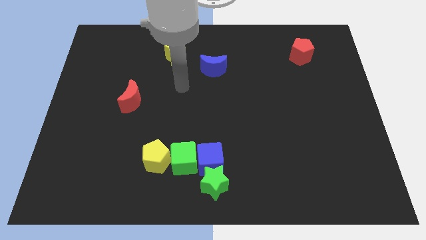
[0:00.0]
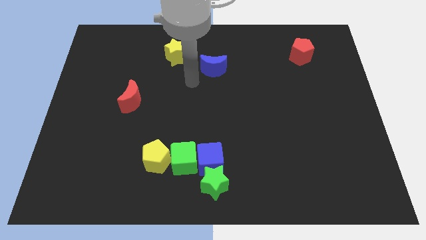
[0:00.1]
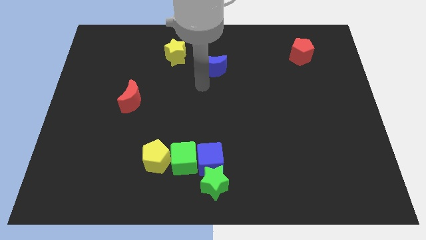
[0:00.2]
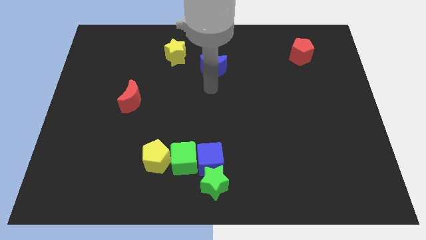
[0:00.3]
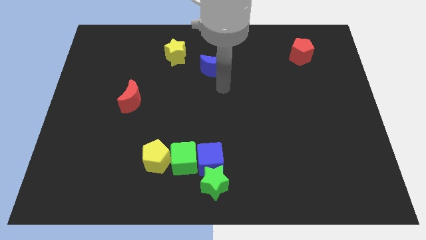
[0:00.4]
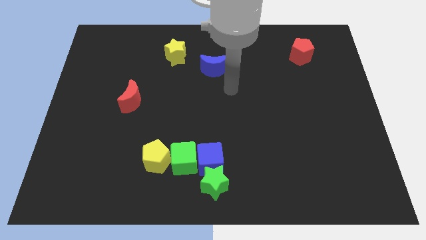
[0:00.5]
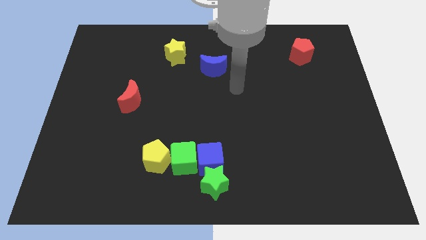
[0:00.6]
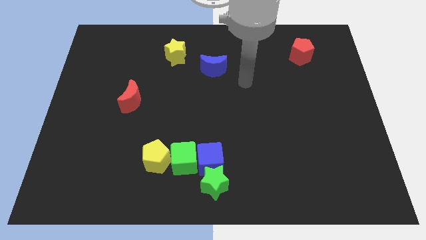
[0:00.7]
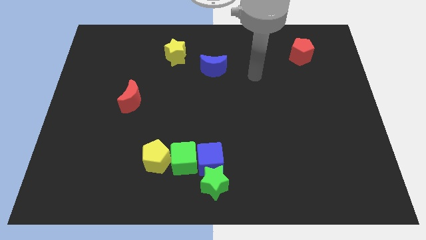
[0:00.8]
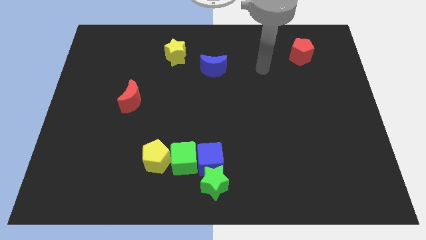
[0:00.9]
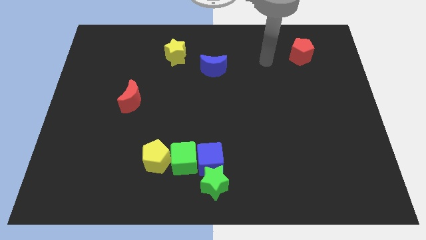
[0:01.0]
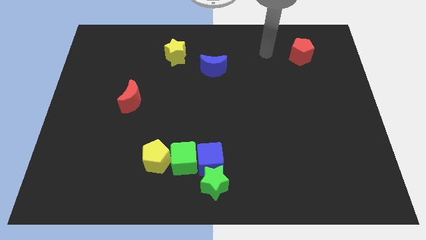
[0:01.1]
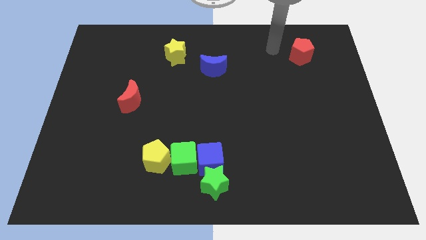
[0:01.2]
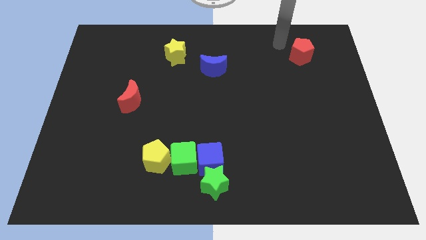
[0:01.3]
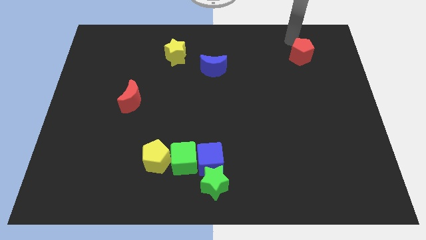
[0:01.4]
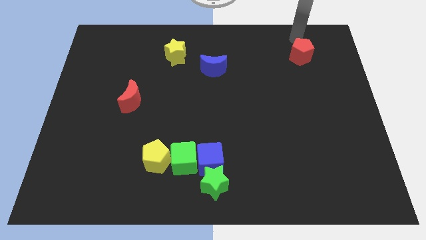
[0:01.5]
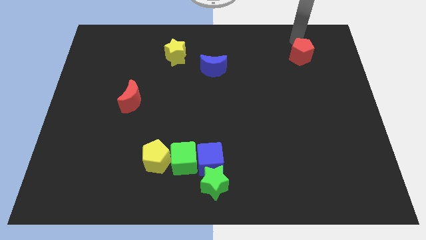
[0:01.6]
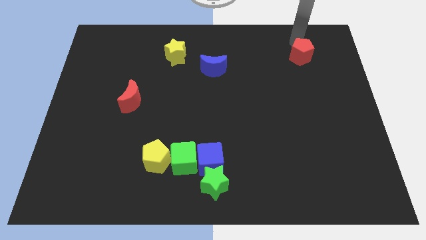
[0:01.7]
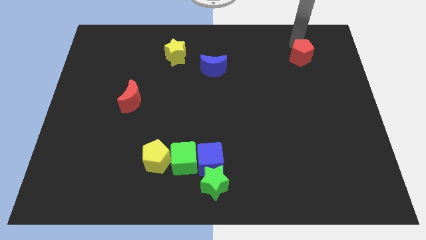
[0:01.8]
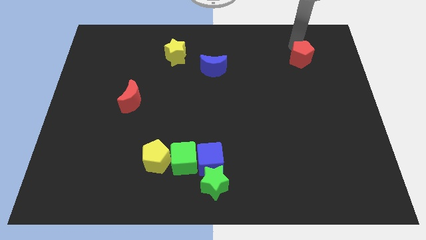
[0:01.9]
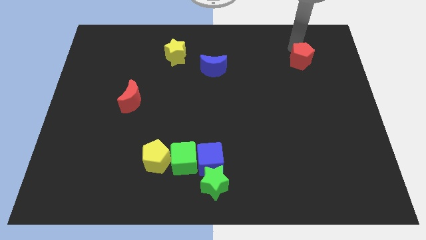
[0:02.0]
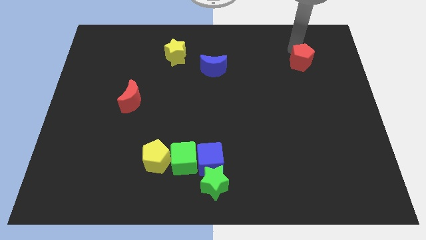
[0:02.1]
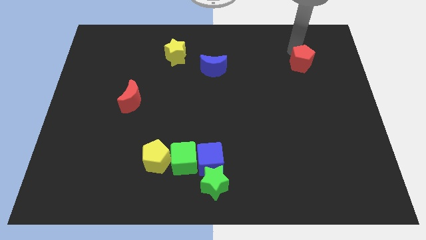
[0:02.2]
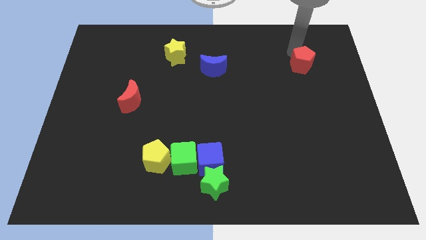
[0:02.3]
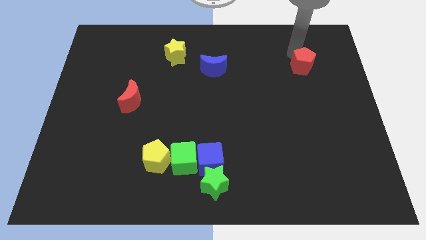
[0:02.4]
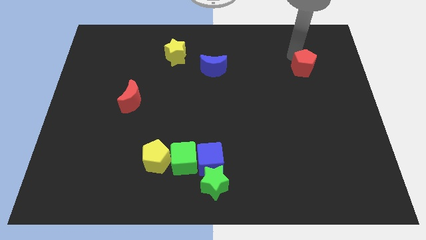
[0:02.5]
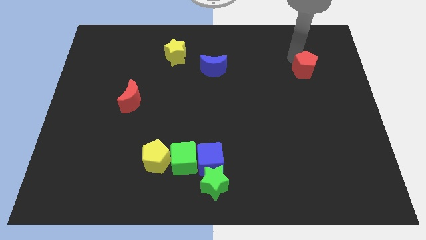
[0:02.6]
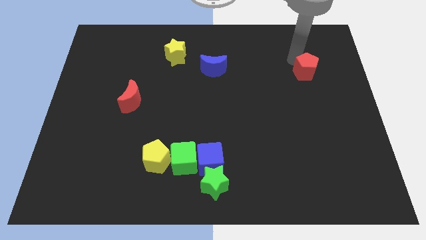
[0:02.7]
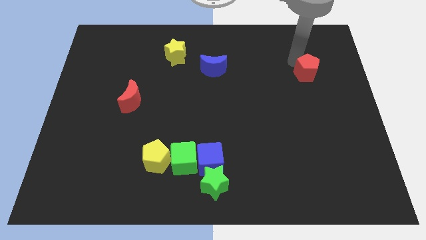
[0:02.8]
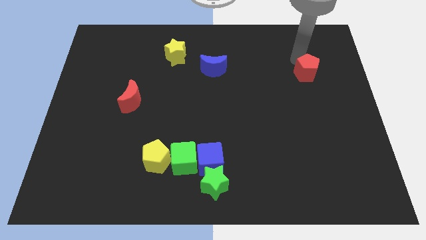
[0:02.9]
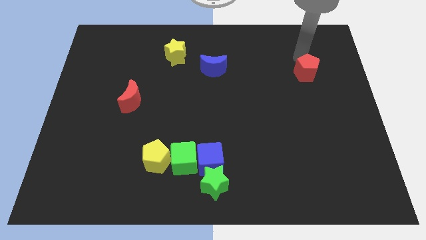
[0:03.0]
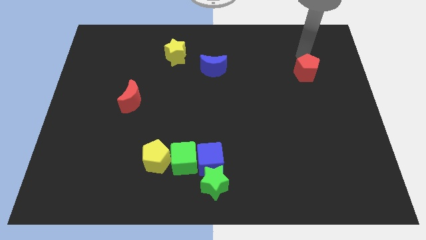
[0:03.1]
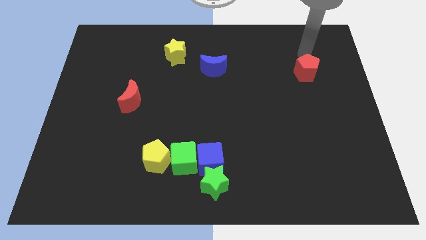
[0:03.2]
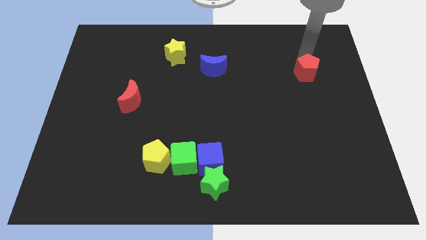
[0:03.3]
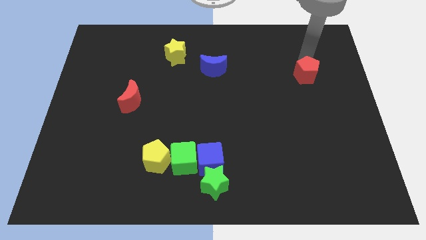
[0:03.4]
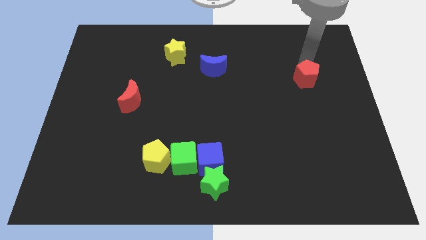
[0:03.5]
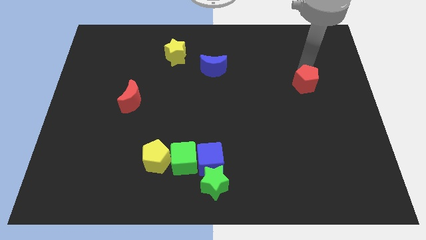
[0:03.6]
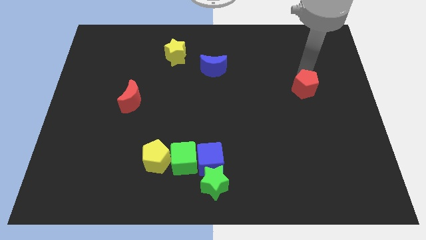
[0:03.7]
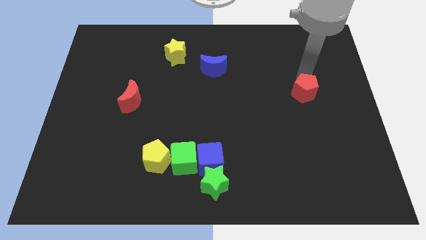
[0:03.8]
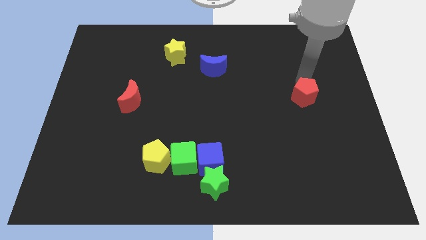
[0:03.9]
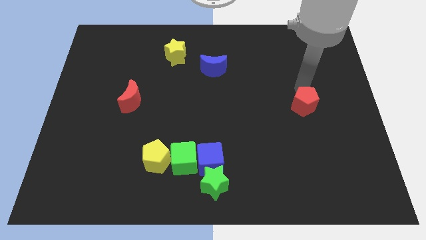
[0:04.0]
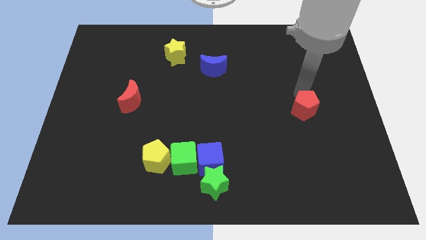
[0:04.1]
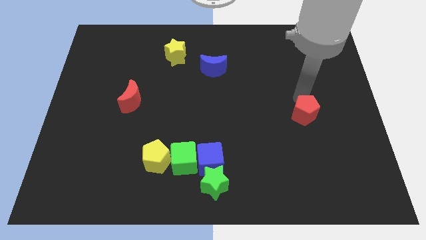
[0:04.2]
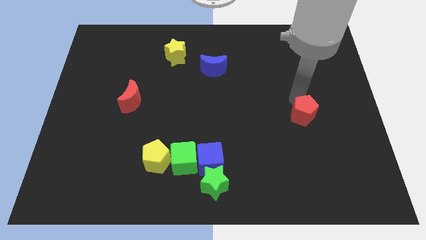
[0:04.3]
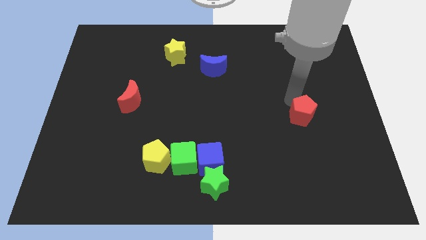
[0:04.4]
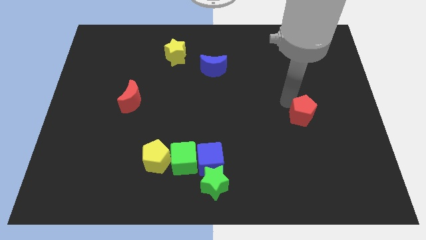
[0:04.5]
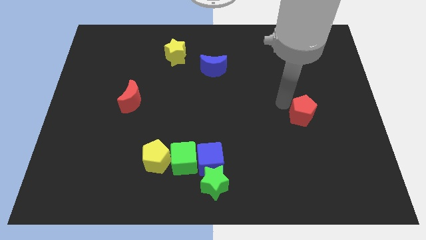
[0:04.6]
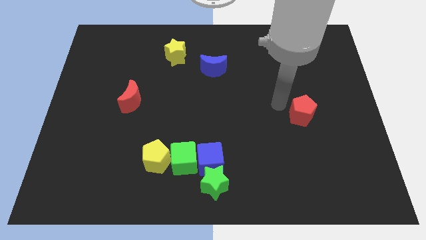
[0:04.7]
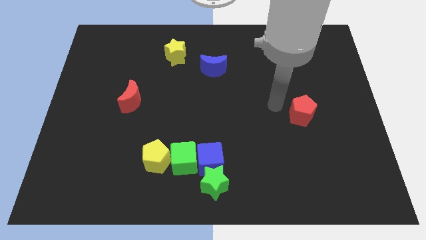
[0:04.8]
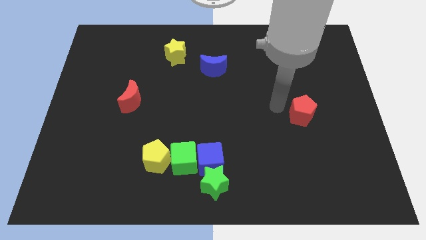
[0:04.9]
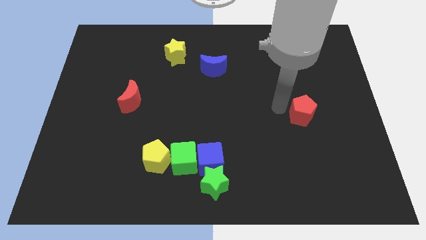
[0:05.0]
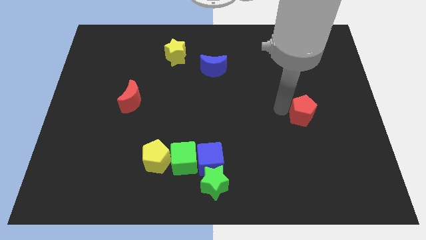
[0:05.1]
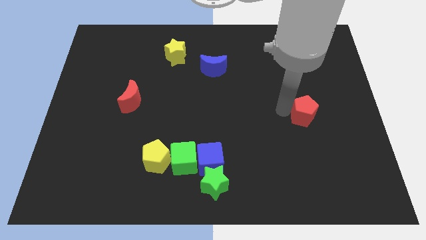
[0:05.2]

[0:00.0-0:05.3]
push the red pentagon down

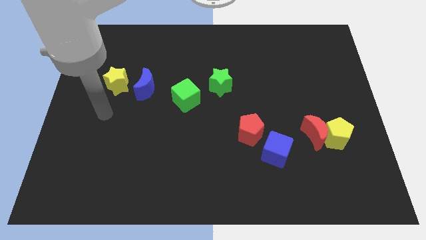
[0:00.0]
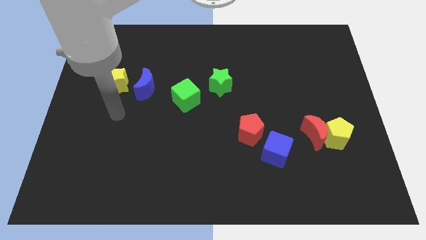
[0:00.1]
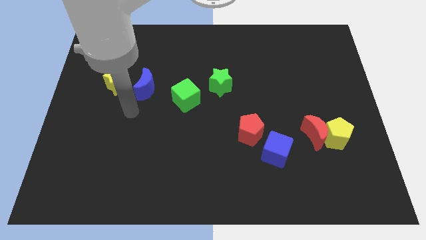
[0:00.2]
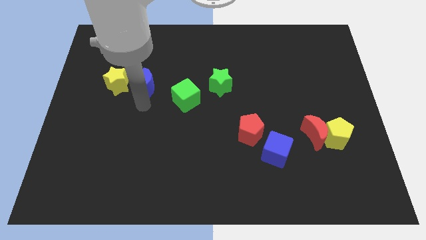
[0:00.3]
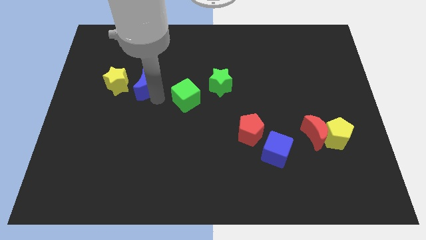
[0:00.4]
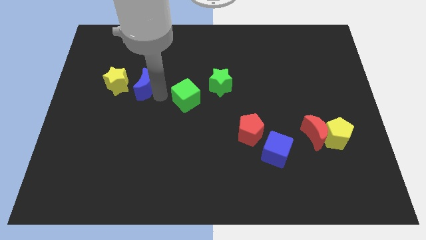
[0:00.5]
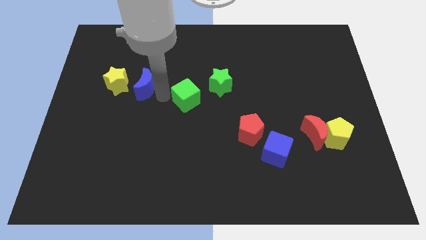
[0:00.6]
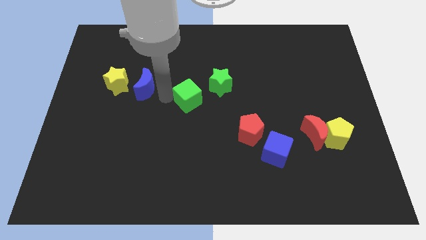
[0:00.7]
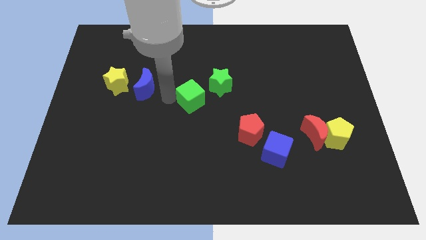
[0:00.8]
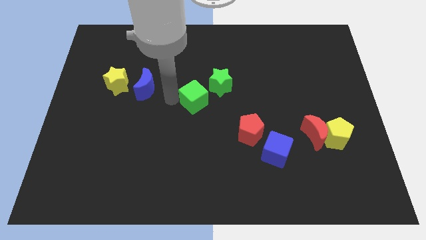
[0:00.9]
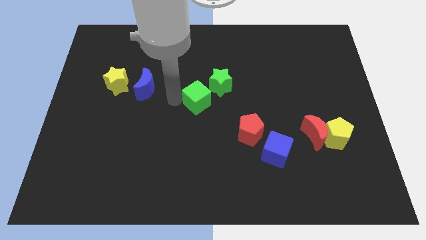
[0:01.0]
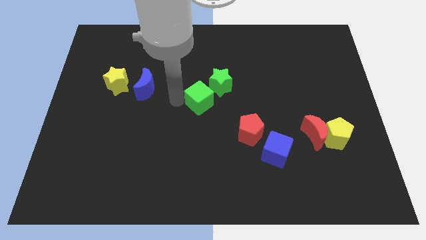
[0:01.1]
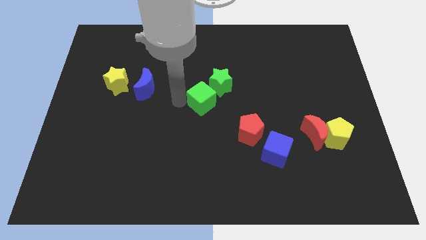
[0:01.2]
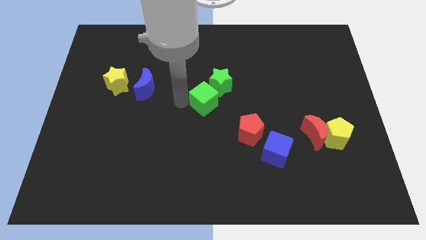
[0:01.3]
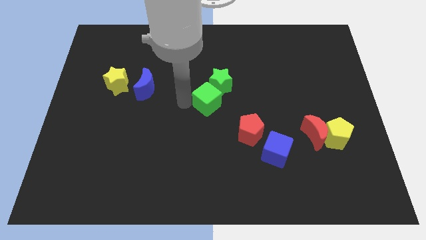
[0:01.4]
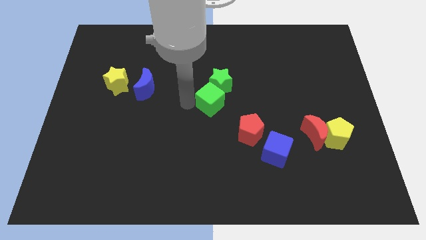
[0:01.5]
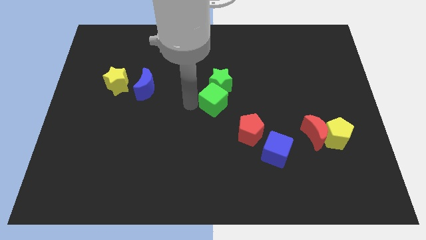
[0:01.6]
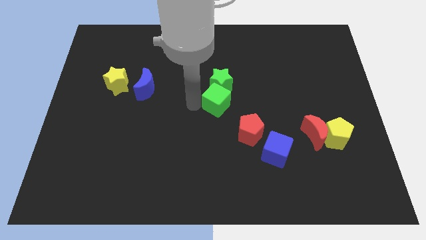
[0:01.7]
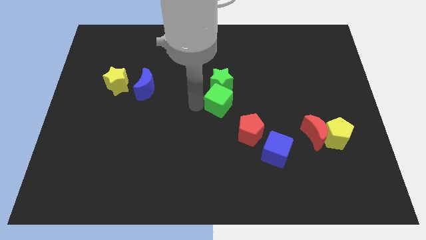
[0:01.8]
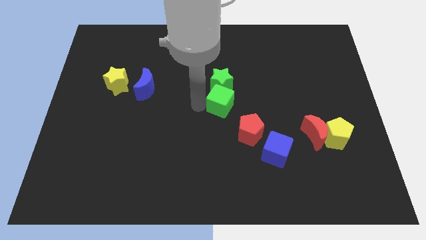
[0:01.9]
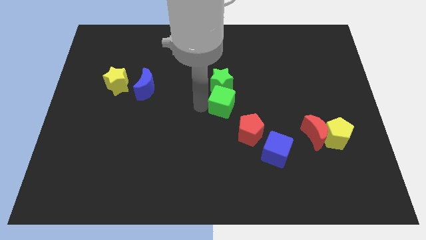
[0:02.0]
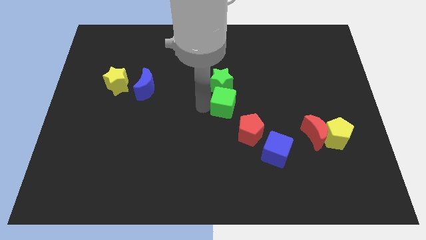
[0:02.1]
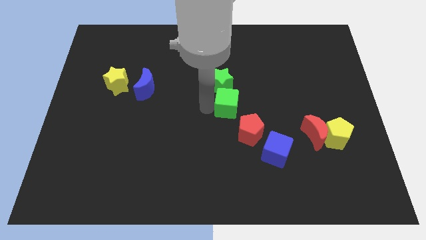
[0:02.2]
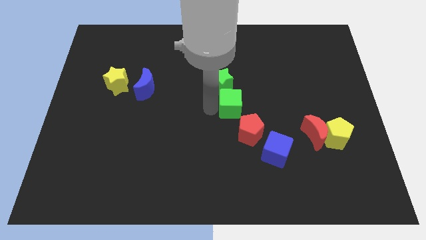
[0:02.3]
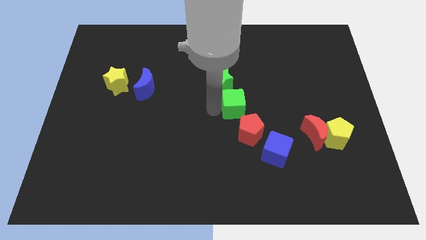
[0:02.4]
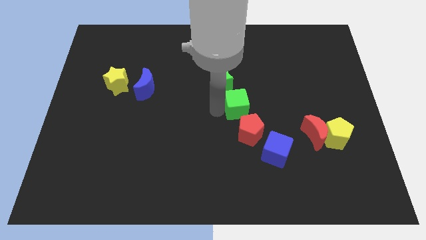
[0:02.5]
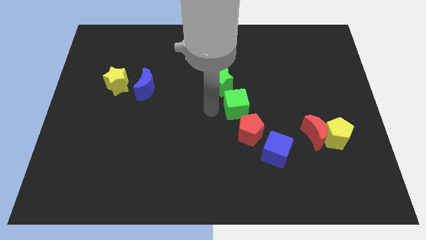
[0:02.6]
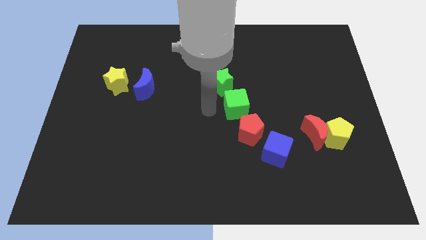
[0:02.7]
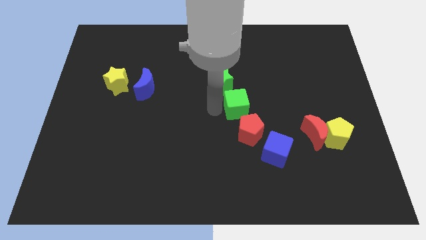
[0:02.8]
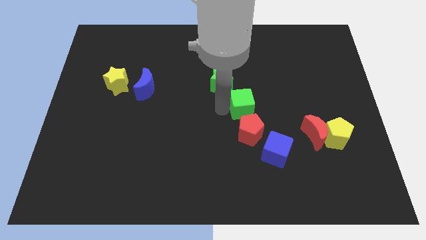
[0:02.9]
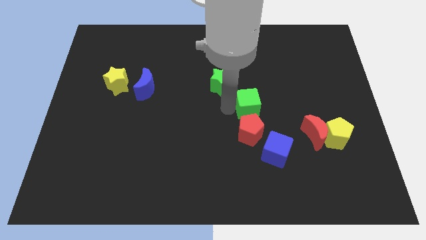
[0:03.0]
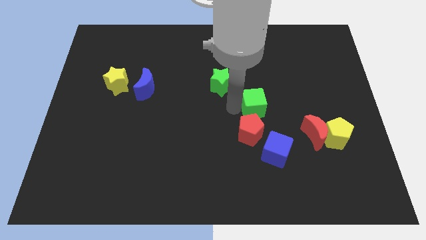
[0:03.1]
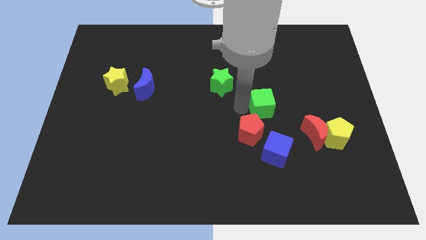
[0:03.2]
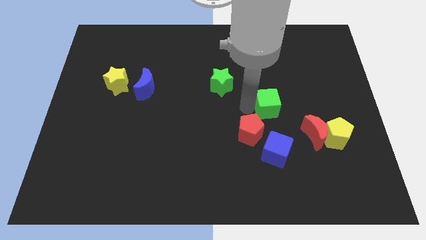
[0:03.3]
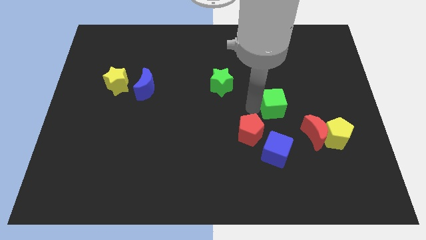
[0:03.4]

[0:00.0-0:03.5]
push the green cube right
